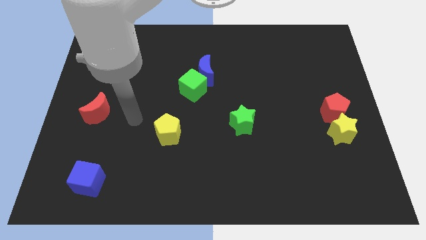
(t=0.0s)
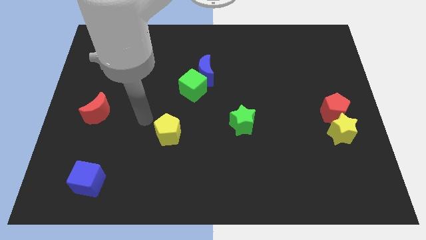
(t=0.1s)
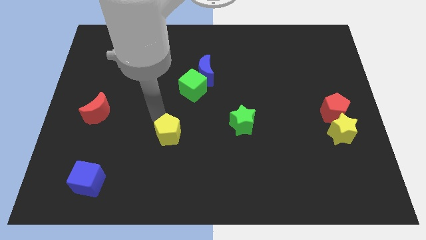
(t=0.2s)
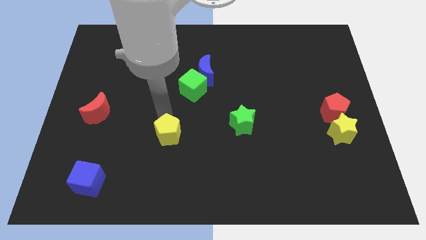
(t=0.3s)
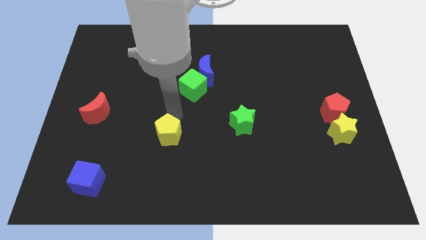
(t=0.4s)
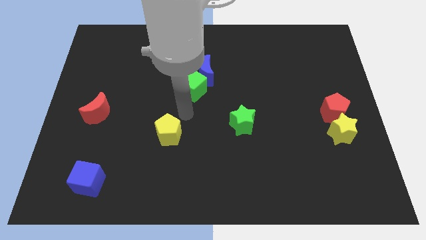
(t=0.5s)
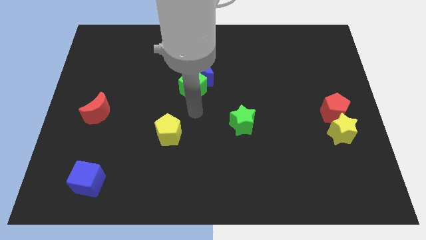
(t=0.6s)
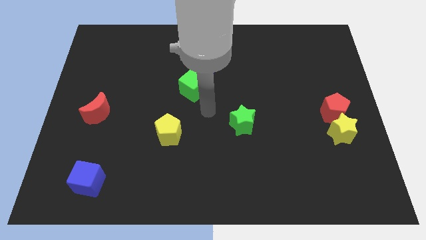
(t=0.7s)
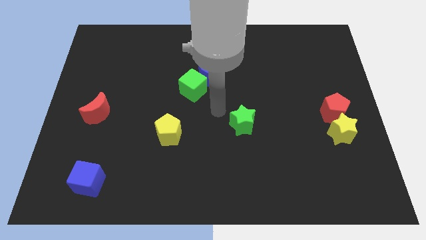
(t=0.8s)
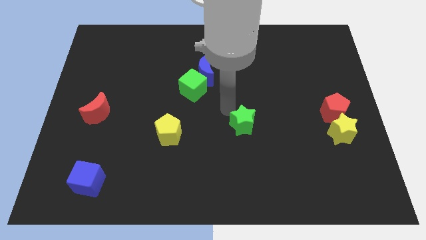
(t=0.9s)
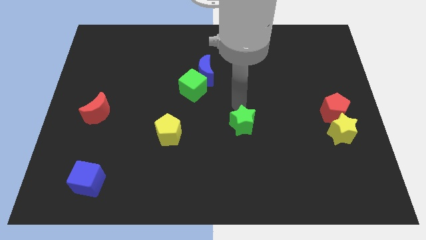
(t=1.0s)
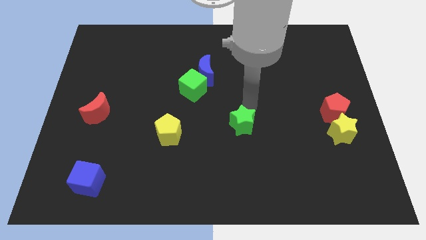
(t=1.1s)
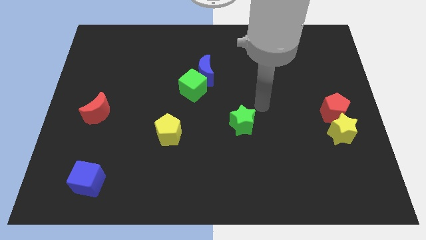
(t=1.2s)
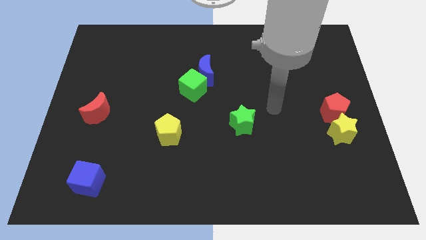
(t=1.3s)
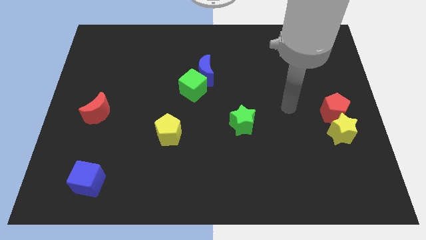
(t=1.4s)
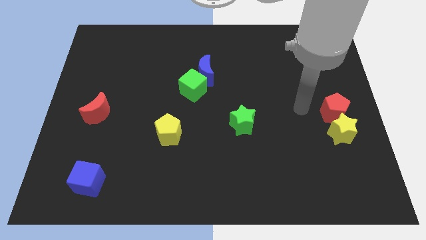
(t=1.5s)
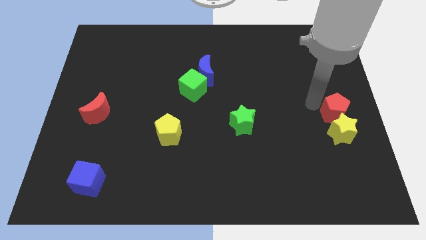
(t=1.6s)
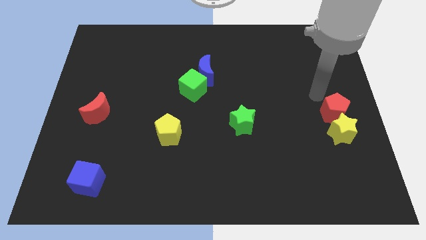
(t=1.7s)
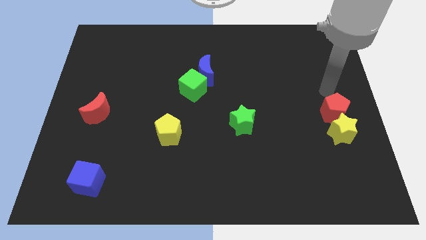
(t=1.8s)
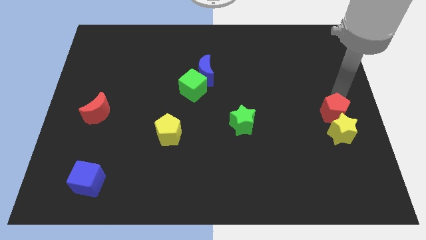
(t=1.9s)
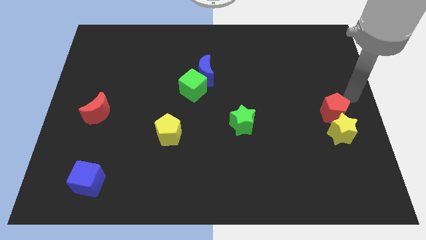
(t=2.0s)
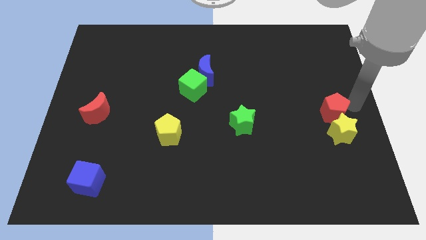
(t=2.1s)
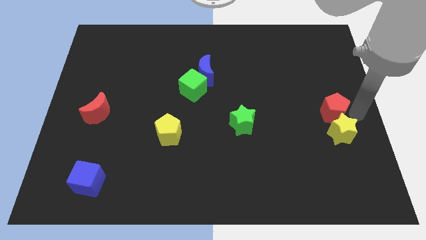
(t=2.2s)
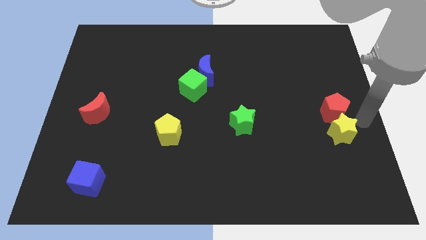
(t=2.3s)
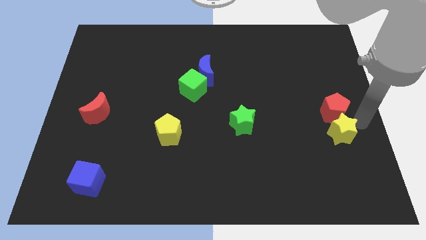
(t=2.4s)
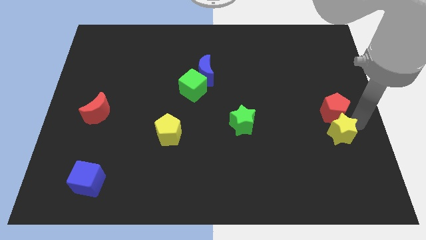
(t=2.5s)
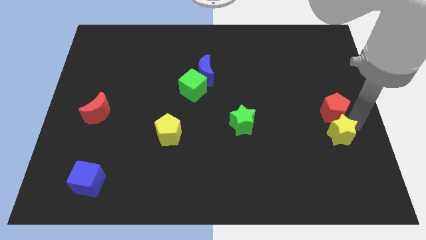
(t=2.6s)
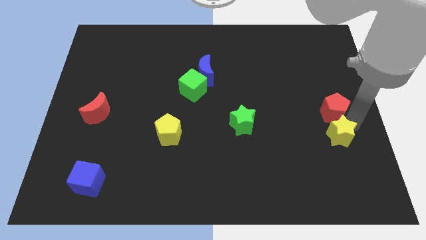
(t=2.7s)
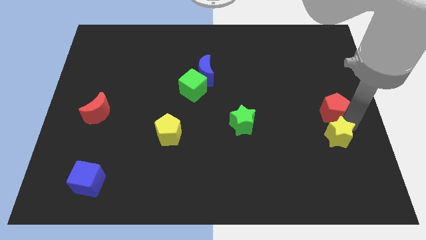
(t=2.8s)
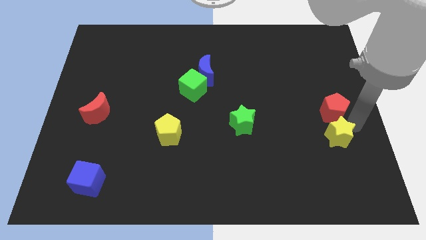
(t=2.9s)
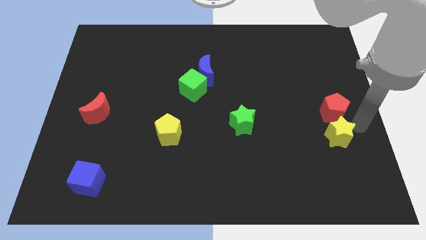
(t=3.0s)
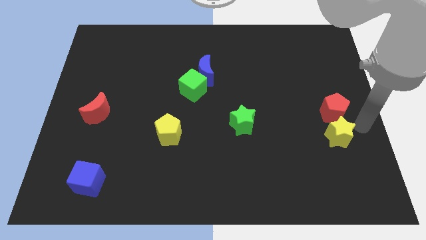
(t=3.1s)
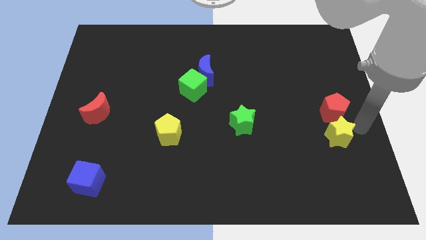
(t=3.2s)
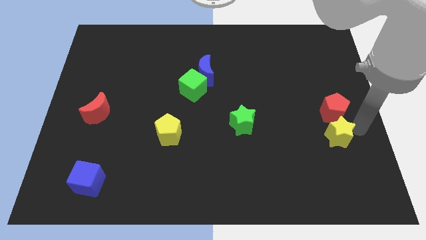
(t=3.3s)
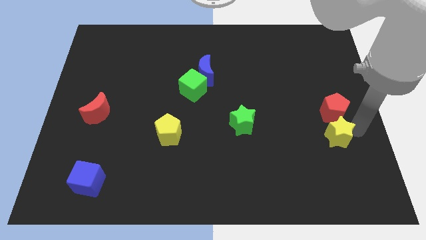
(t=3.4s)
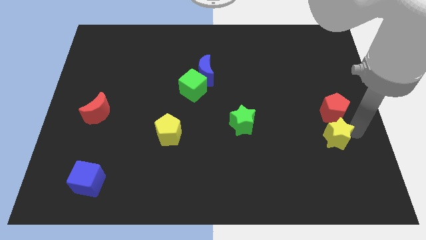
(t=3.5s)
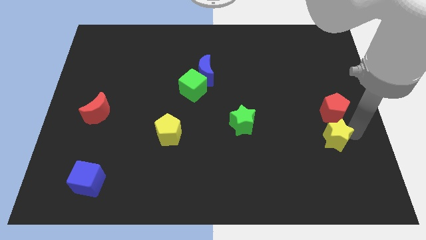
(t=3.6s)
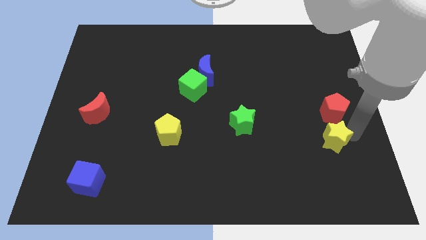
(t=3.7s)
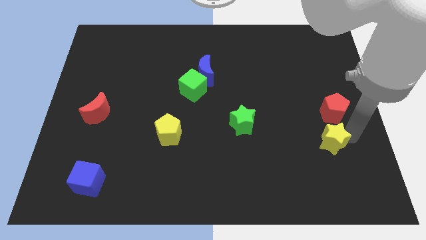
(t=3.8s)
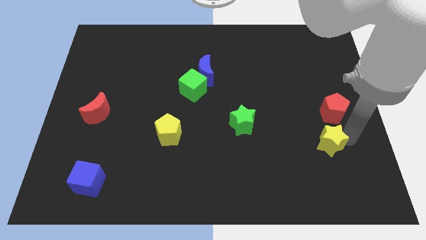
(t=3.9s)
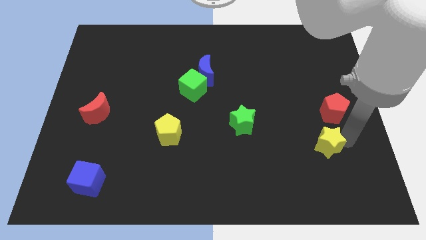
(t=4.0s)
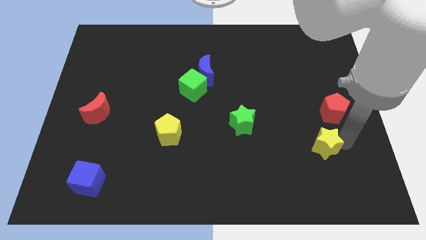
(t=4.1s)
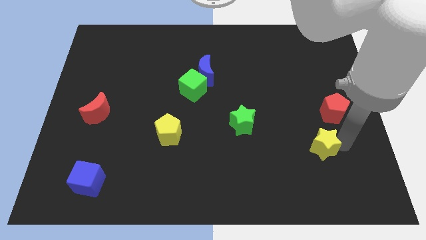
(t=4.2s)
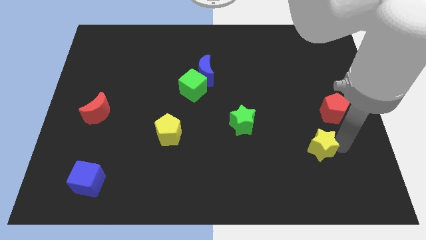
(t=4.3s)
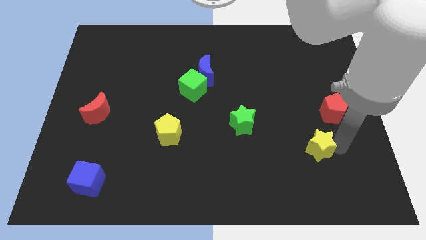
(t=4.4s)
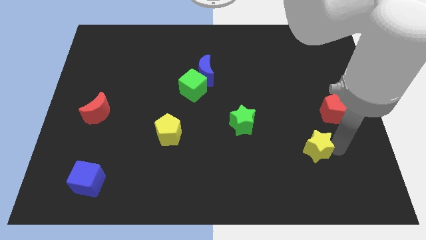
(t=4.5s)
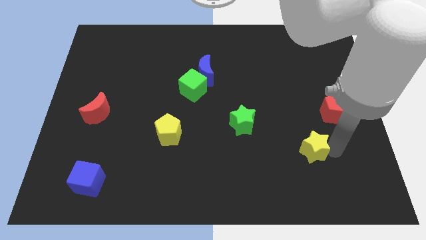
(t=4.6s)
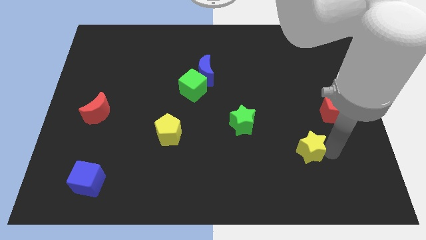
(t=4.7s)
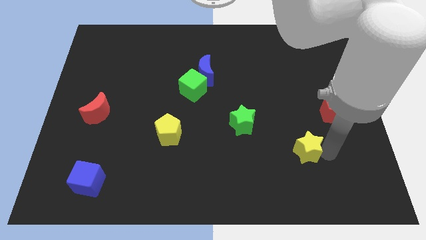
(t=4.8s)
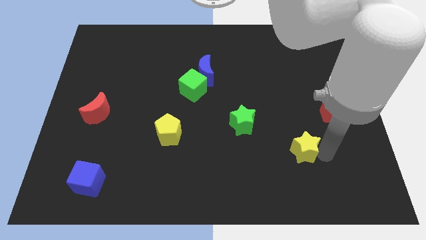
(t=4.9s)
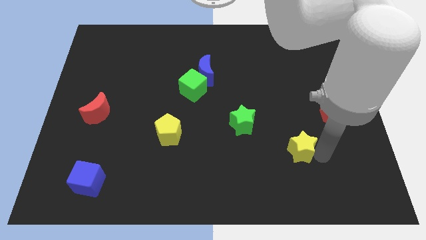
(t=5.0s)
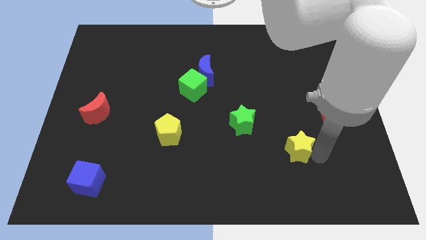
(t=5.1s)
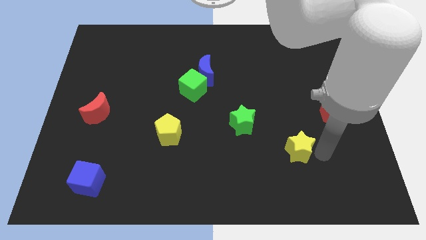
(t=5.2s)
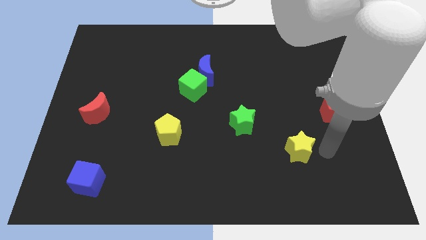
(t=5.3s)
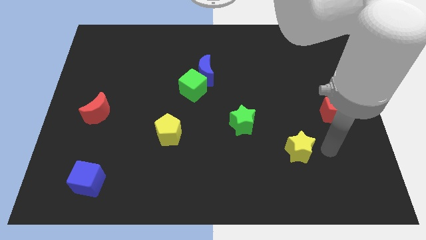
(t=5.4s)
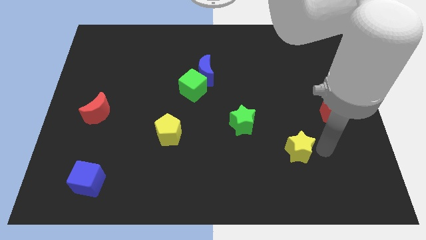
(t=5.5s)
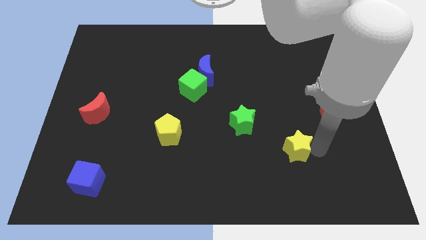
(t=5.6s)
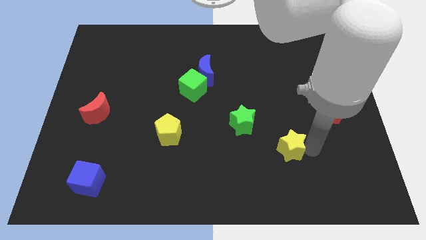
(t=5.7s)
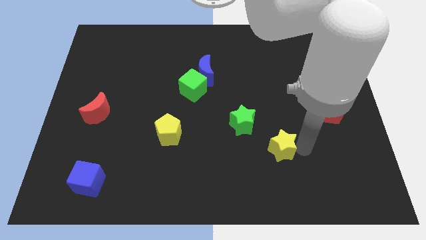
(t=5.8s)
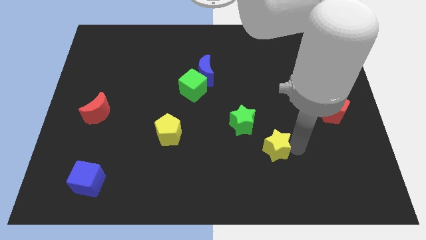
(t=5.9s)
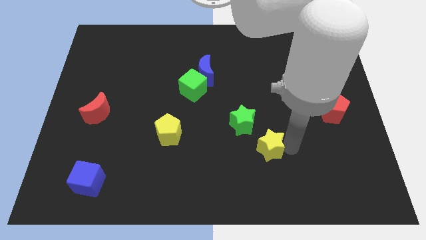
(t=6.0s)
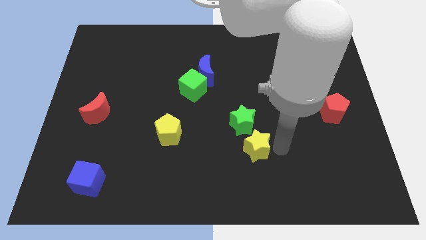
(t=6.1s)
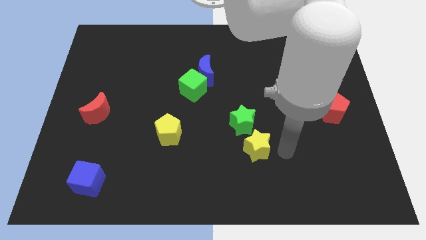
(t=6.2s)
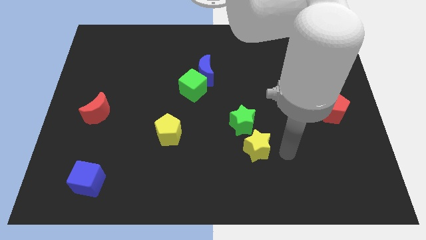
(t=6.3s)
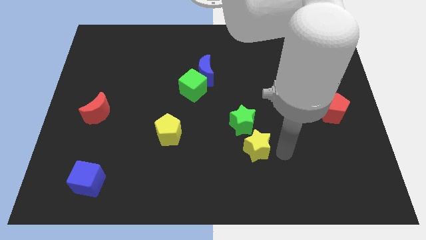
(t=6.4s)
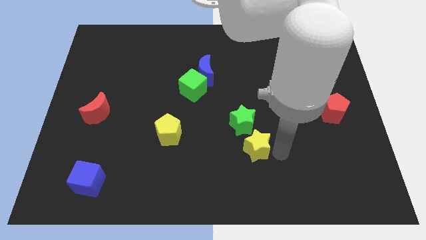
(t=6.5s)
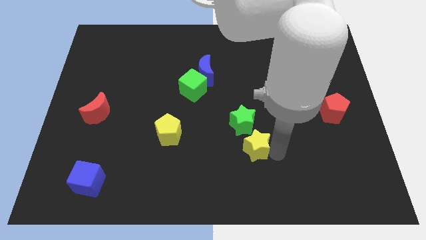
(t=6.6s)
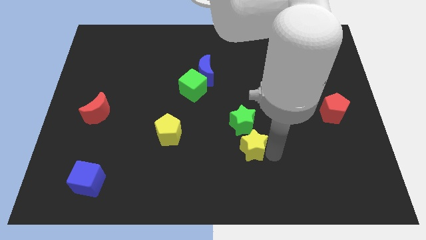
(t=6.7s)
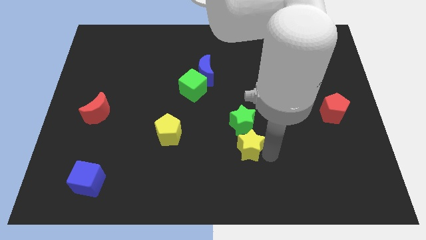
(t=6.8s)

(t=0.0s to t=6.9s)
slide the yellow star left

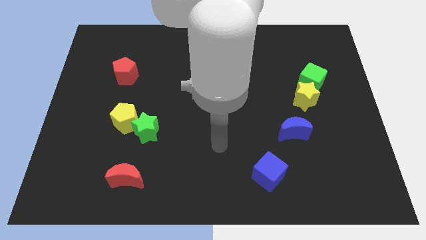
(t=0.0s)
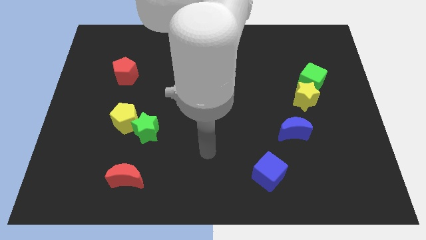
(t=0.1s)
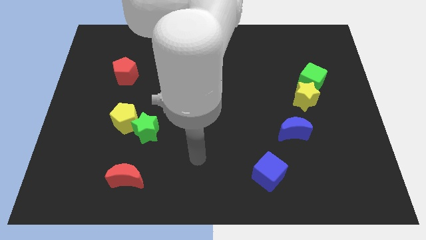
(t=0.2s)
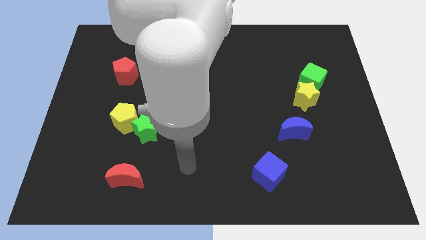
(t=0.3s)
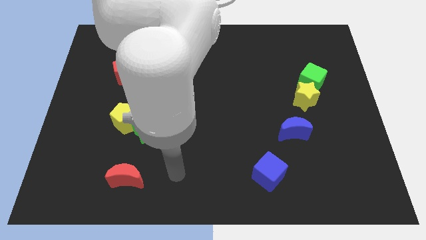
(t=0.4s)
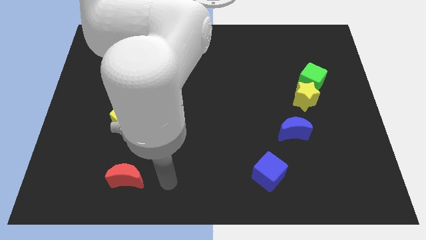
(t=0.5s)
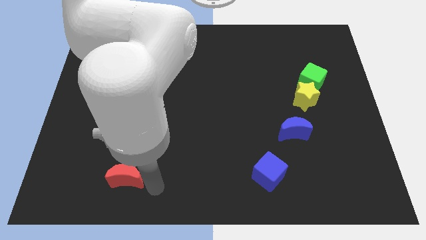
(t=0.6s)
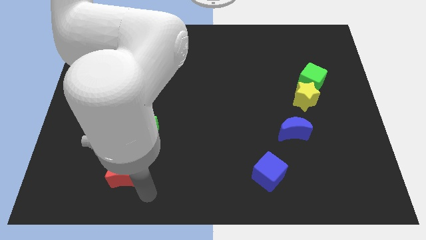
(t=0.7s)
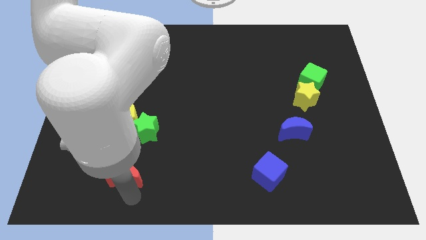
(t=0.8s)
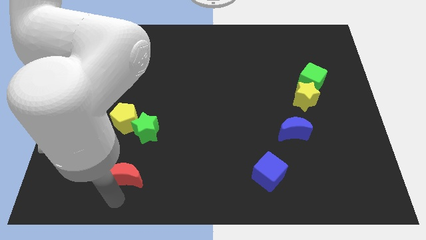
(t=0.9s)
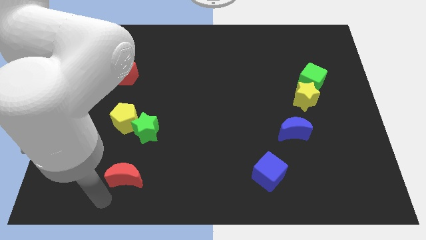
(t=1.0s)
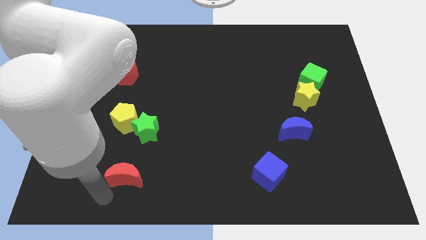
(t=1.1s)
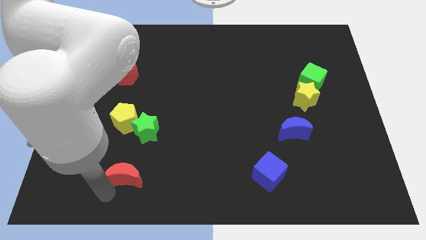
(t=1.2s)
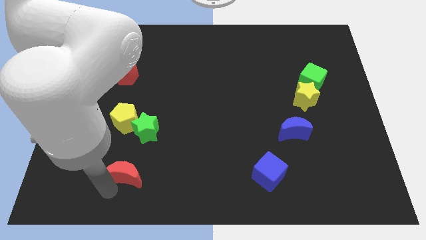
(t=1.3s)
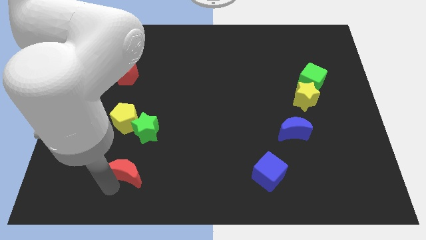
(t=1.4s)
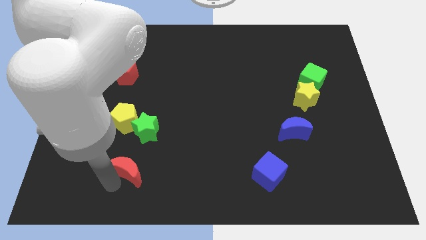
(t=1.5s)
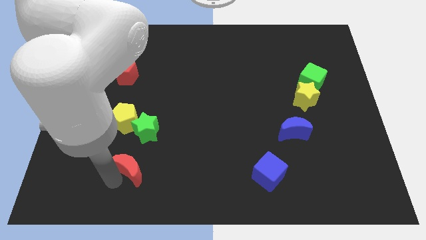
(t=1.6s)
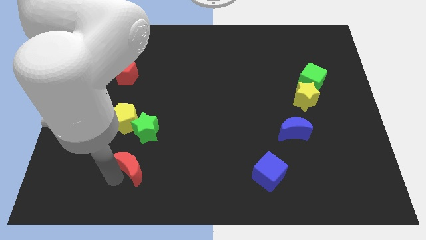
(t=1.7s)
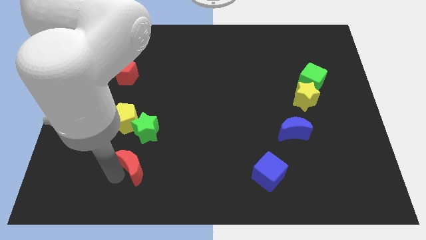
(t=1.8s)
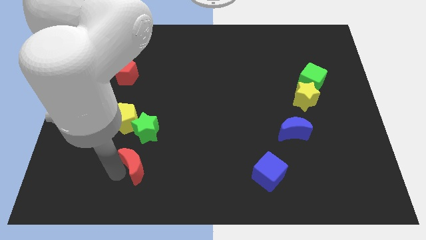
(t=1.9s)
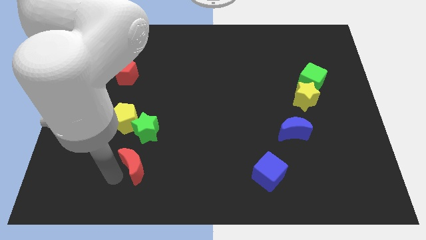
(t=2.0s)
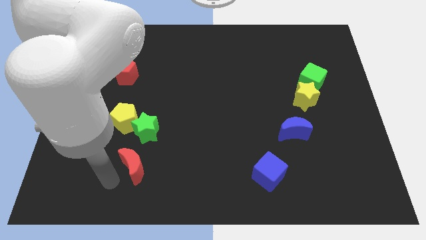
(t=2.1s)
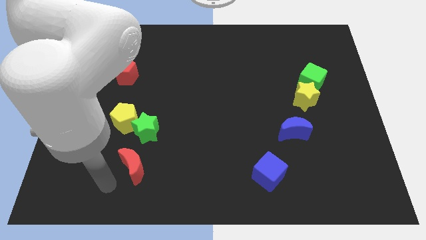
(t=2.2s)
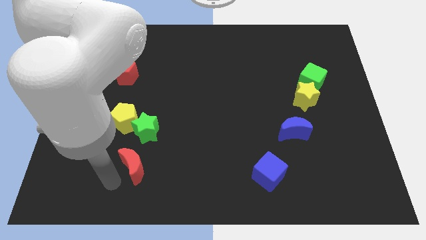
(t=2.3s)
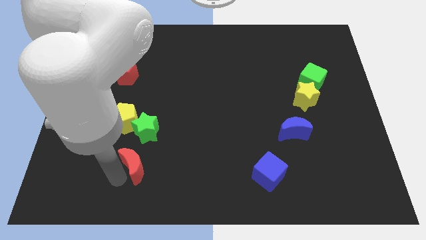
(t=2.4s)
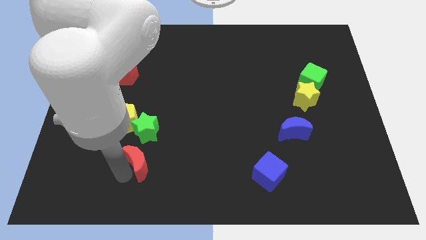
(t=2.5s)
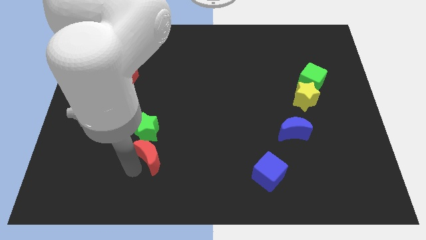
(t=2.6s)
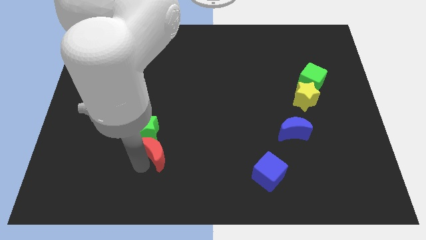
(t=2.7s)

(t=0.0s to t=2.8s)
slightly push the red moon upwards and to the right
